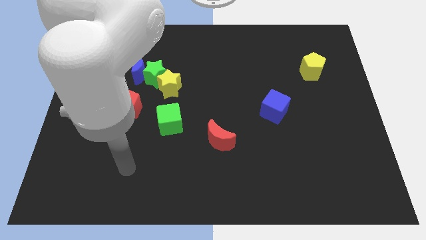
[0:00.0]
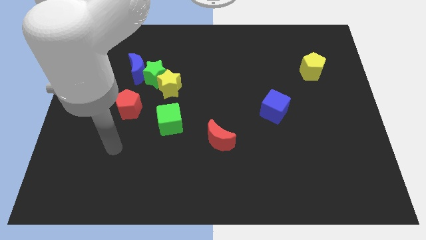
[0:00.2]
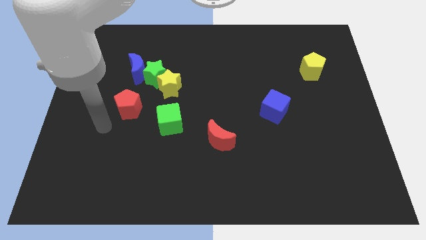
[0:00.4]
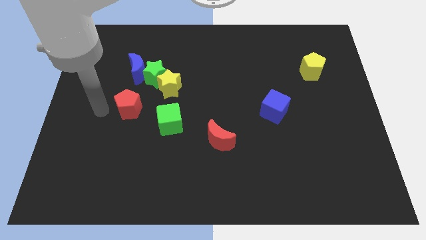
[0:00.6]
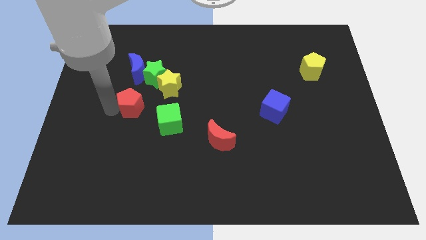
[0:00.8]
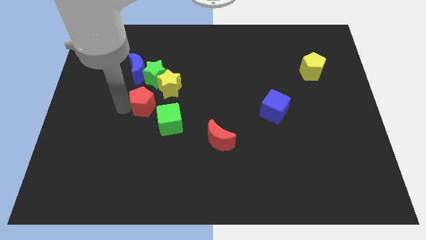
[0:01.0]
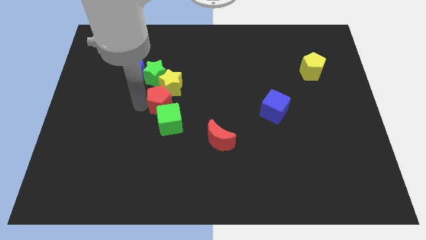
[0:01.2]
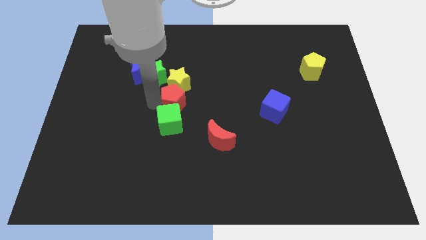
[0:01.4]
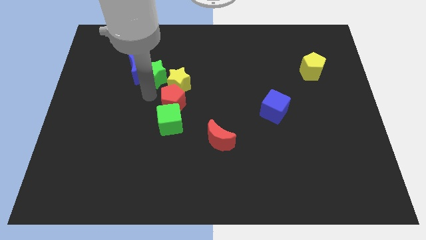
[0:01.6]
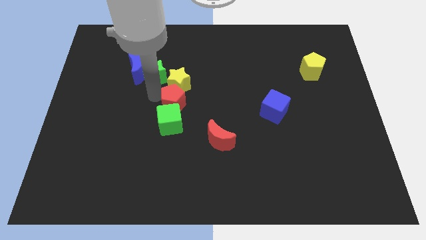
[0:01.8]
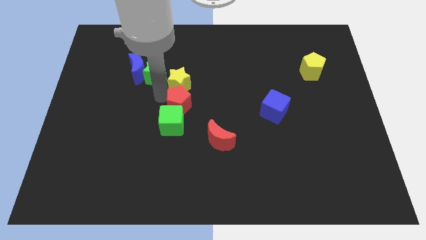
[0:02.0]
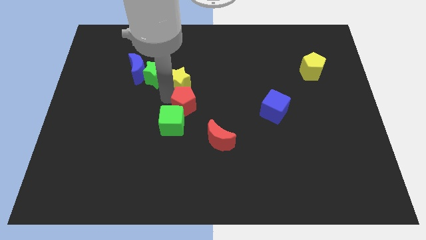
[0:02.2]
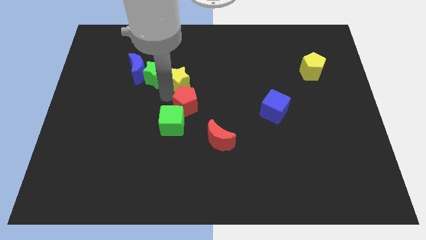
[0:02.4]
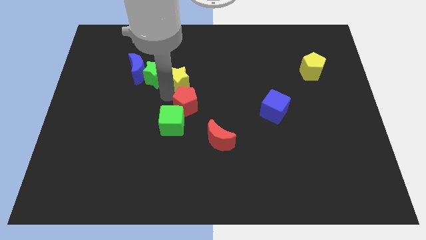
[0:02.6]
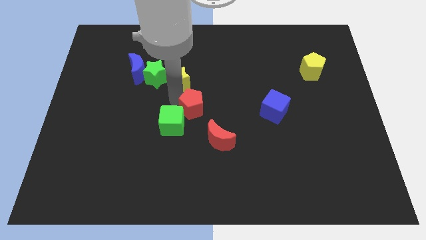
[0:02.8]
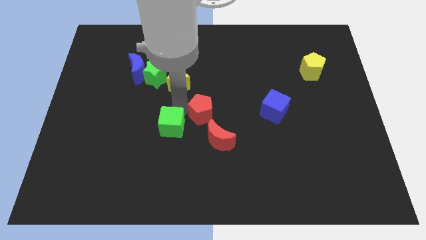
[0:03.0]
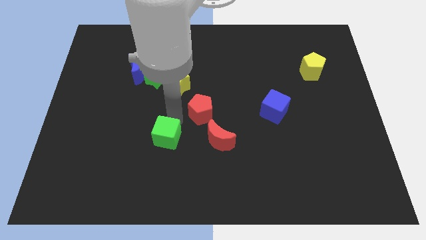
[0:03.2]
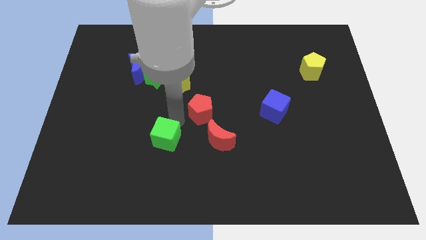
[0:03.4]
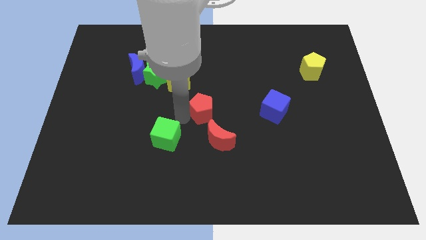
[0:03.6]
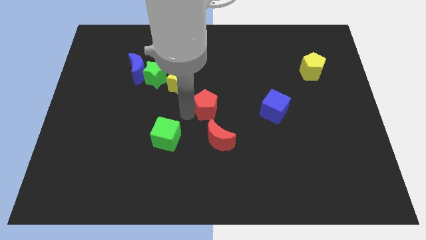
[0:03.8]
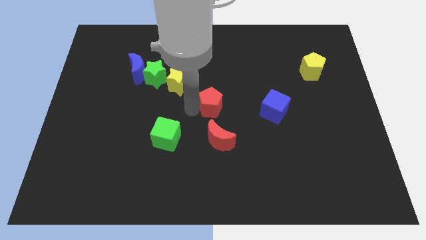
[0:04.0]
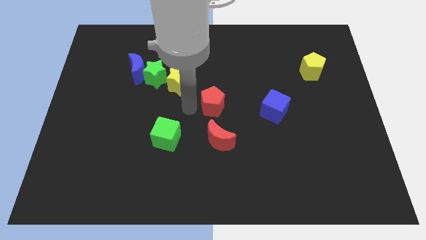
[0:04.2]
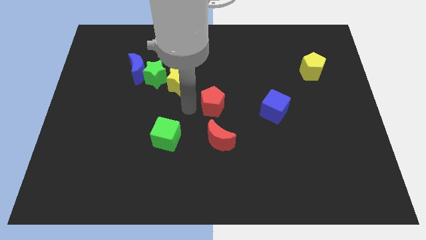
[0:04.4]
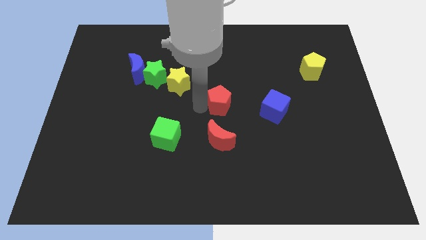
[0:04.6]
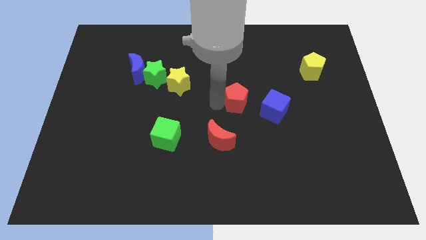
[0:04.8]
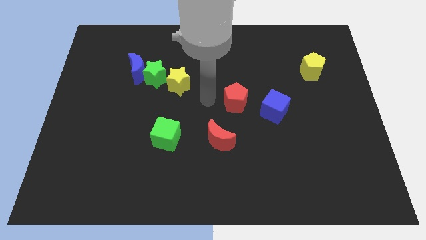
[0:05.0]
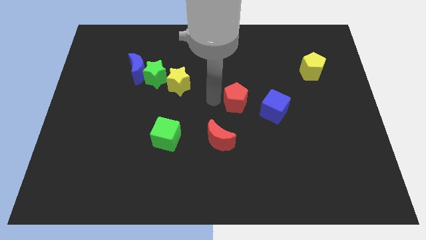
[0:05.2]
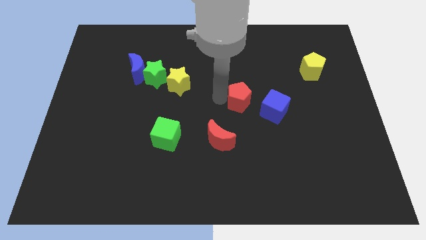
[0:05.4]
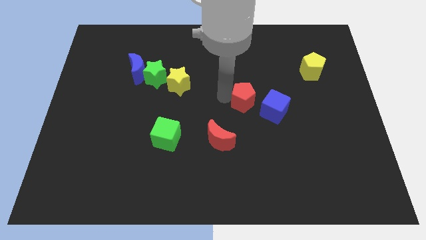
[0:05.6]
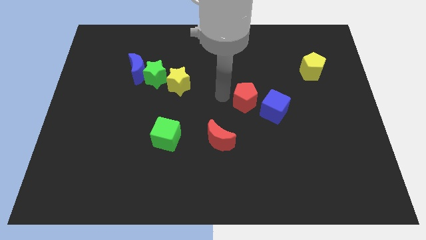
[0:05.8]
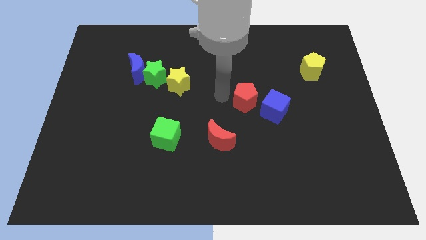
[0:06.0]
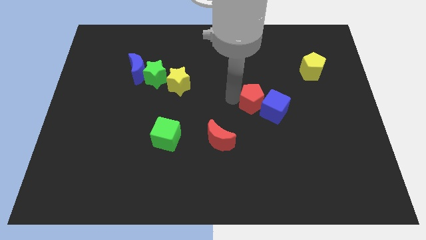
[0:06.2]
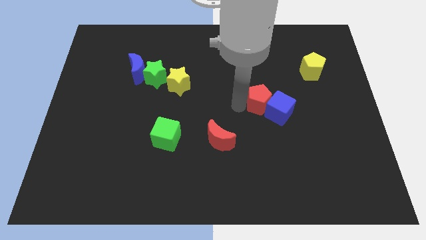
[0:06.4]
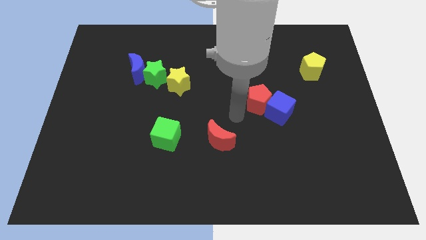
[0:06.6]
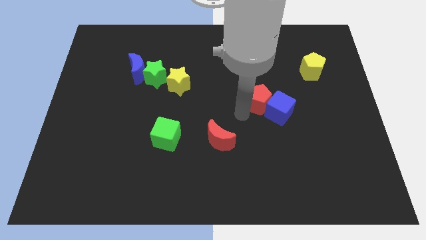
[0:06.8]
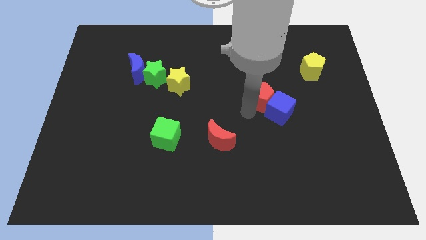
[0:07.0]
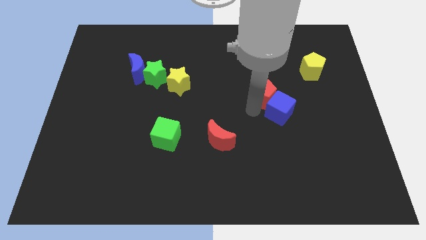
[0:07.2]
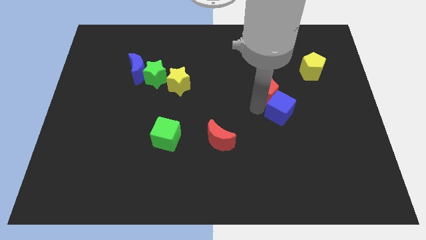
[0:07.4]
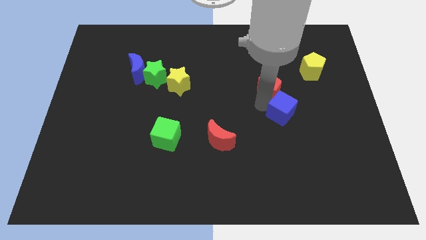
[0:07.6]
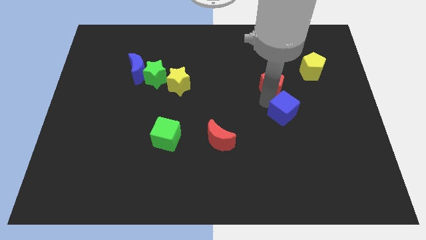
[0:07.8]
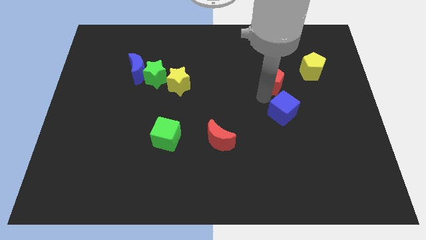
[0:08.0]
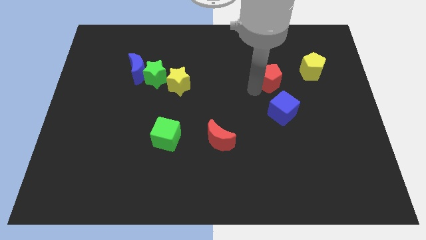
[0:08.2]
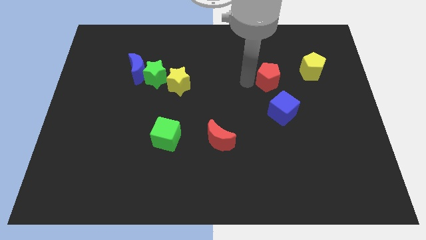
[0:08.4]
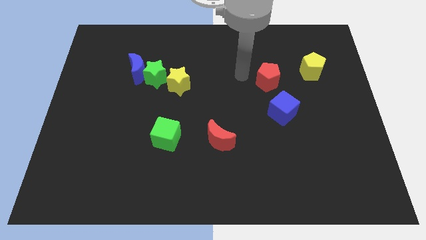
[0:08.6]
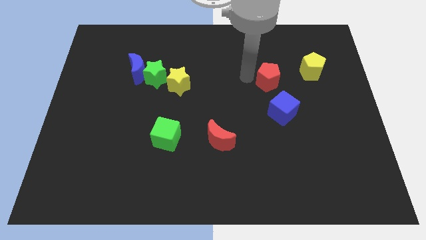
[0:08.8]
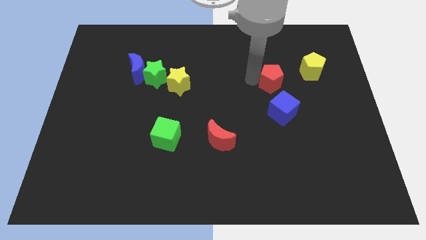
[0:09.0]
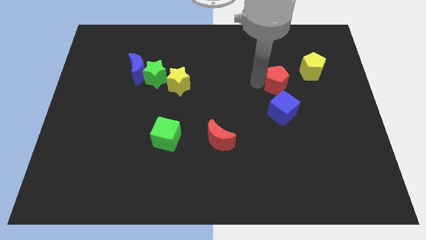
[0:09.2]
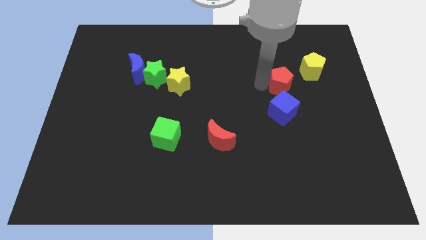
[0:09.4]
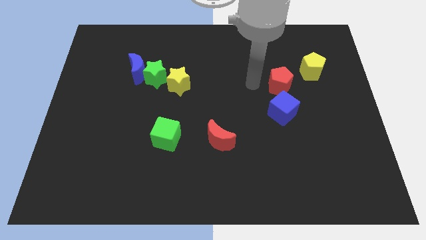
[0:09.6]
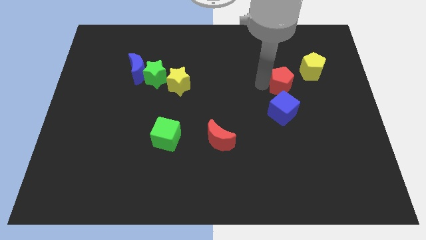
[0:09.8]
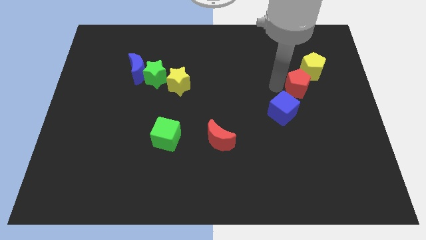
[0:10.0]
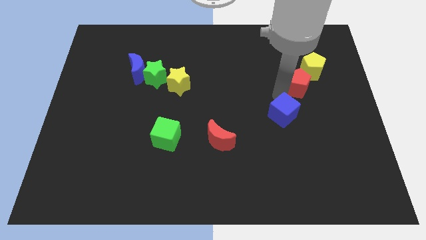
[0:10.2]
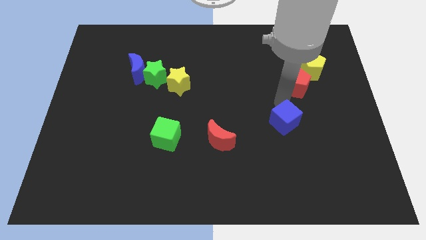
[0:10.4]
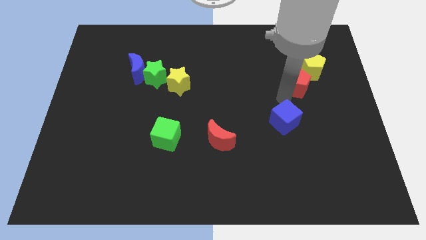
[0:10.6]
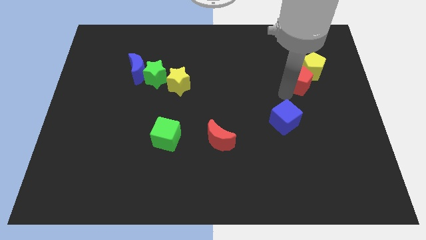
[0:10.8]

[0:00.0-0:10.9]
slide the red pentagon next to the yellow pentagon

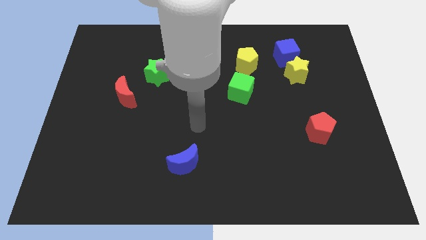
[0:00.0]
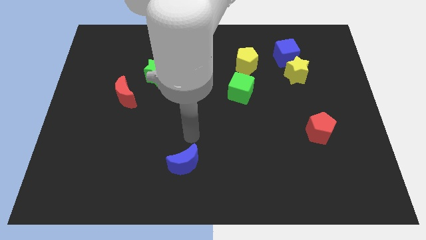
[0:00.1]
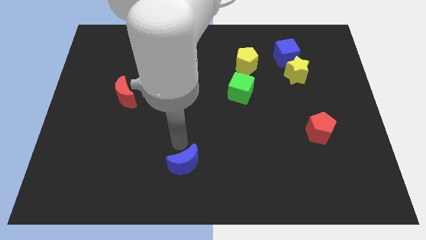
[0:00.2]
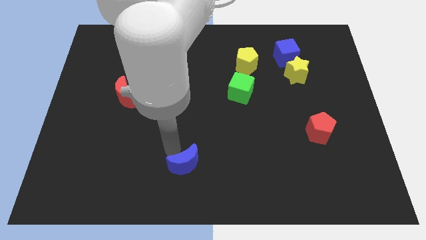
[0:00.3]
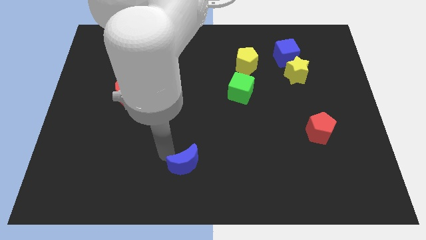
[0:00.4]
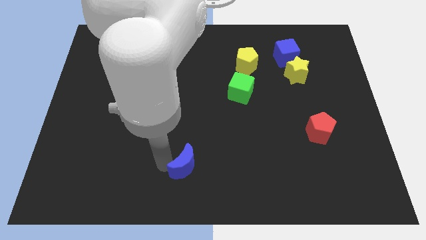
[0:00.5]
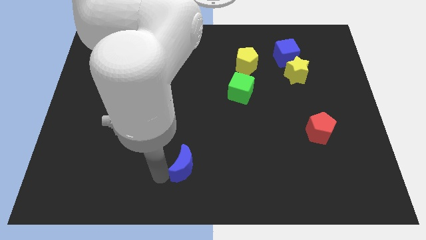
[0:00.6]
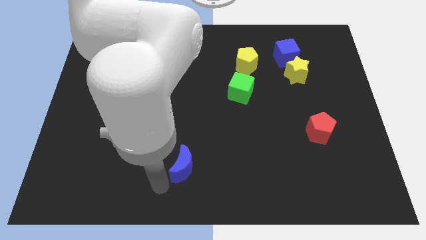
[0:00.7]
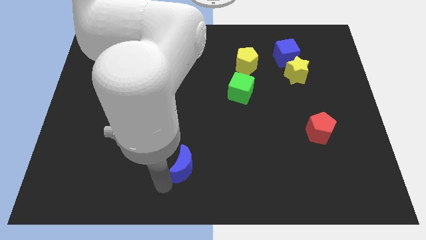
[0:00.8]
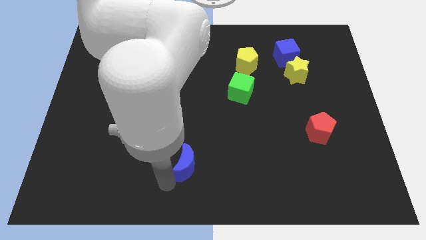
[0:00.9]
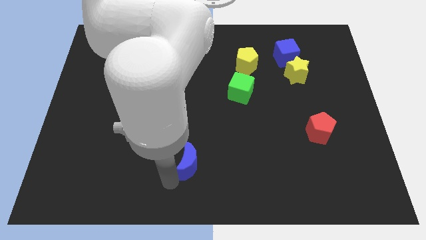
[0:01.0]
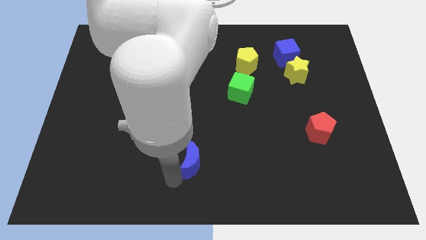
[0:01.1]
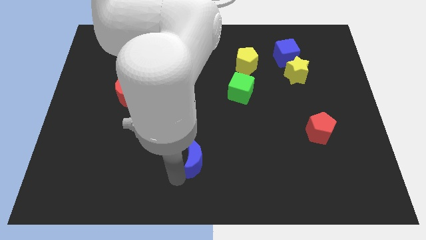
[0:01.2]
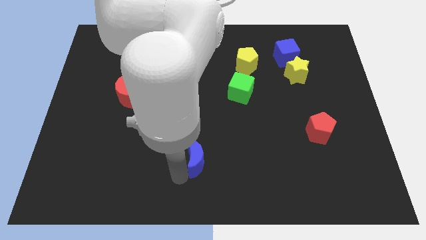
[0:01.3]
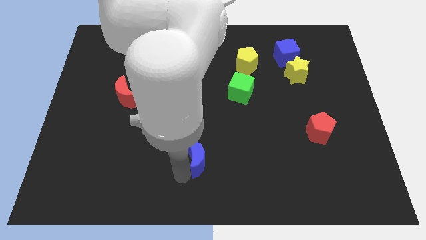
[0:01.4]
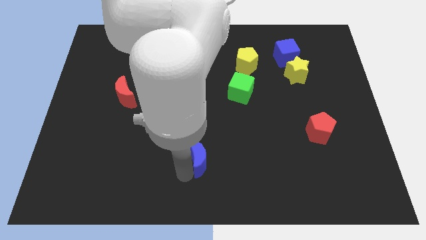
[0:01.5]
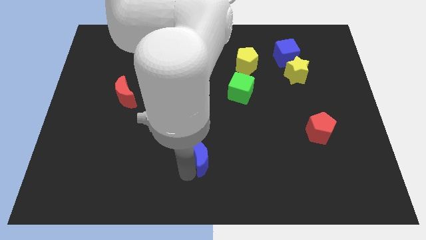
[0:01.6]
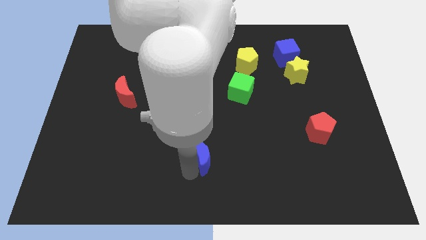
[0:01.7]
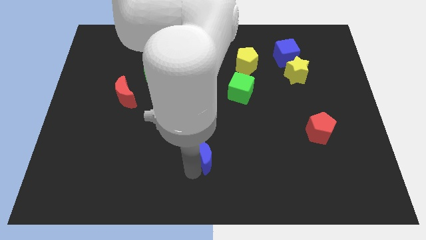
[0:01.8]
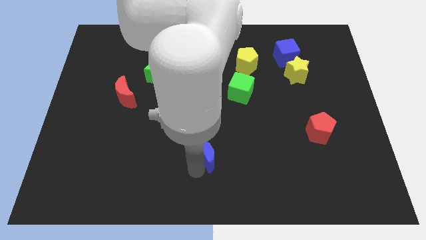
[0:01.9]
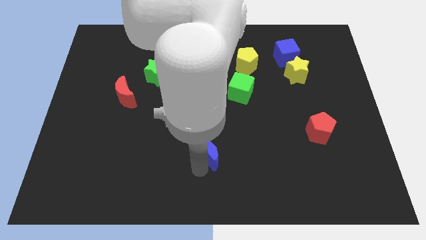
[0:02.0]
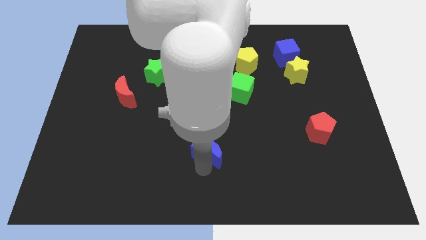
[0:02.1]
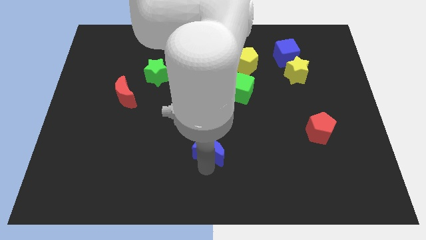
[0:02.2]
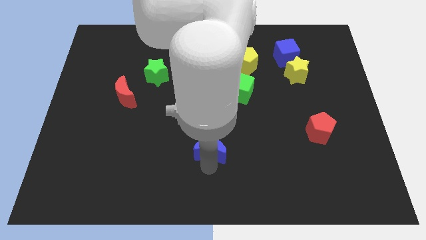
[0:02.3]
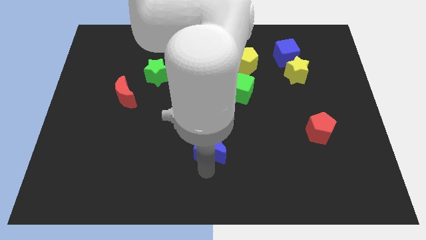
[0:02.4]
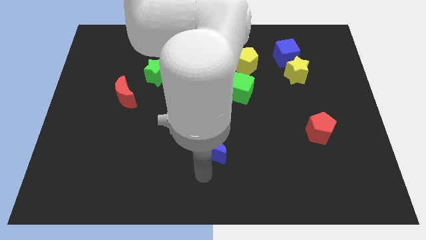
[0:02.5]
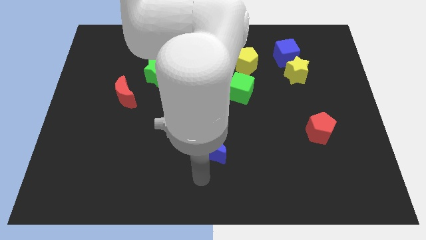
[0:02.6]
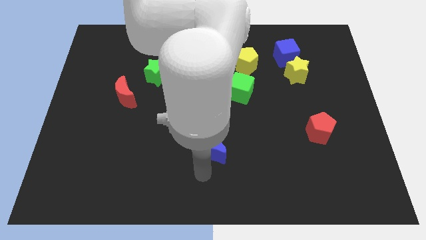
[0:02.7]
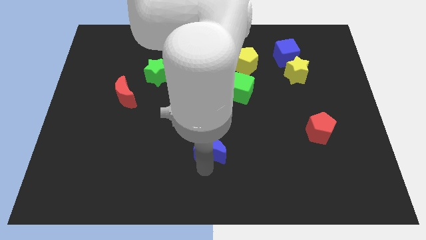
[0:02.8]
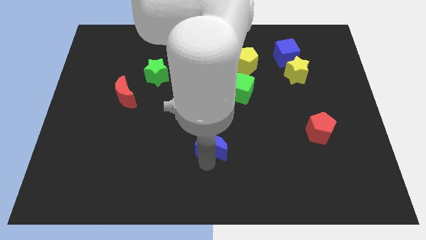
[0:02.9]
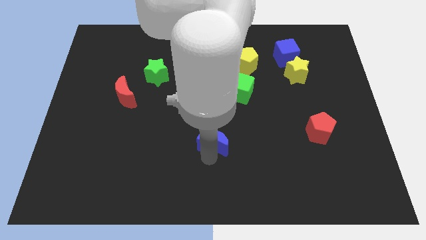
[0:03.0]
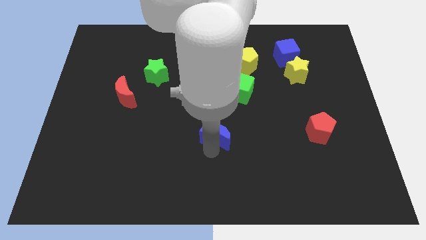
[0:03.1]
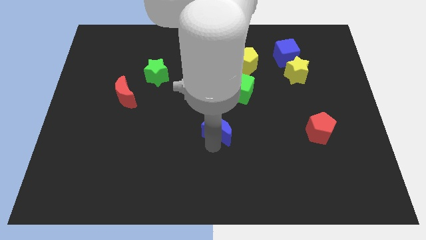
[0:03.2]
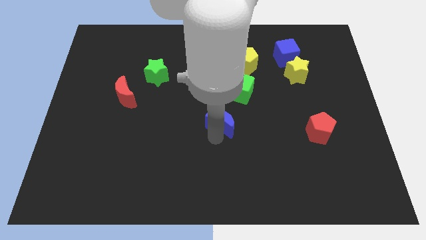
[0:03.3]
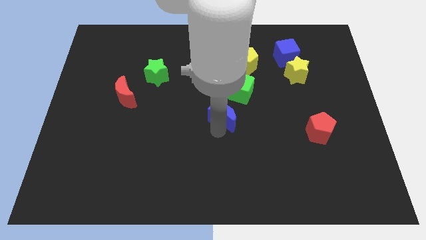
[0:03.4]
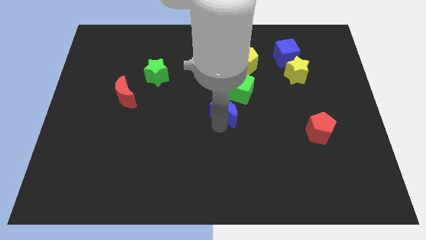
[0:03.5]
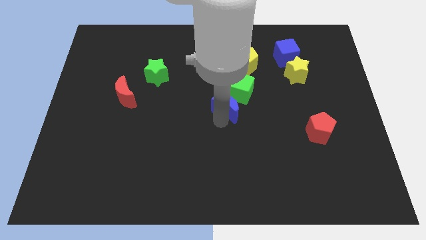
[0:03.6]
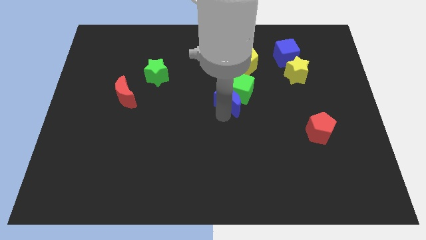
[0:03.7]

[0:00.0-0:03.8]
put the blue moon towards the green cube
